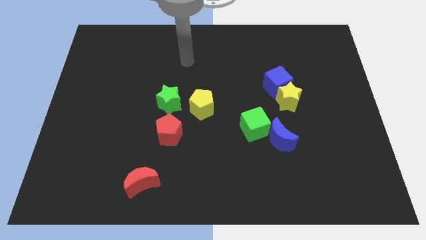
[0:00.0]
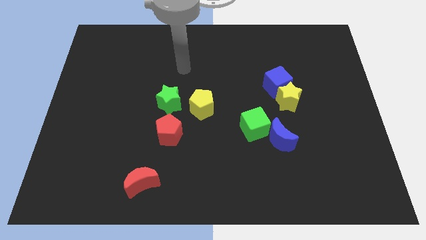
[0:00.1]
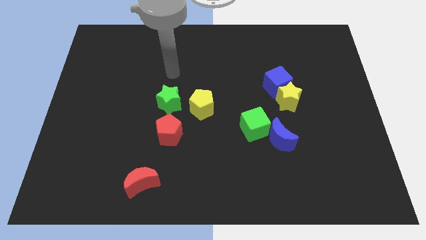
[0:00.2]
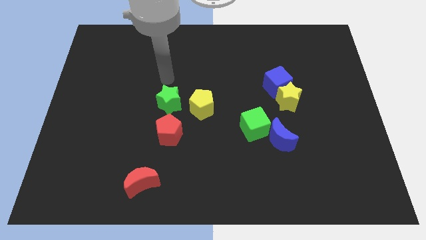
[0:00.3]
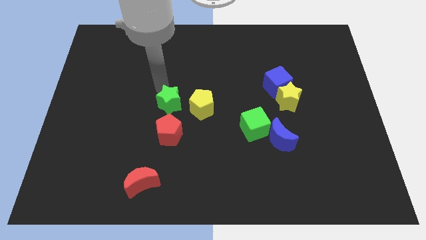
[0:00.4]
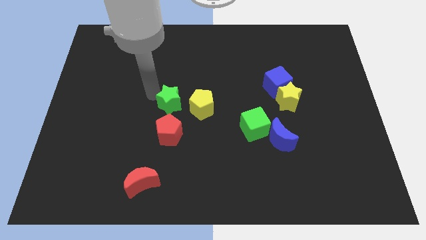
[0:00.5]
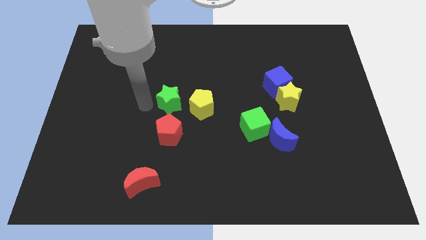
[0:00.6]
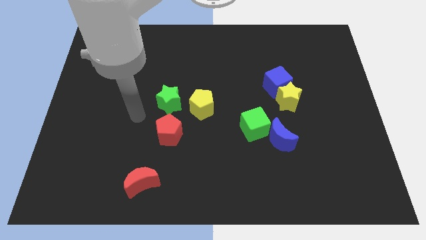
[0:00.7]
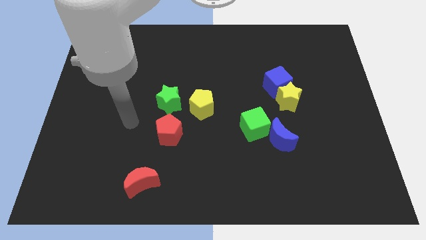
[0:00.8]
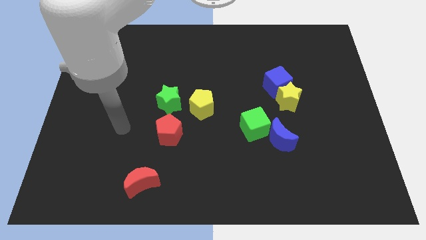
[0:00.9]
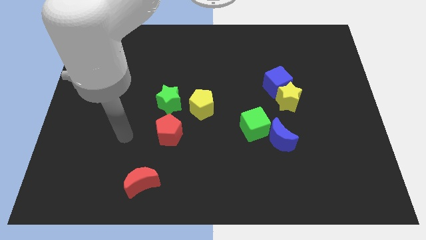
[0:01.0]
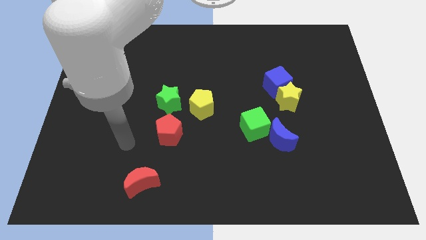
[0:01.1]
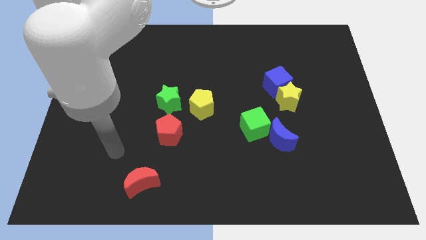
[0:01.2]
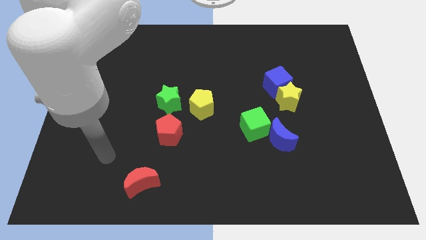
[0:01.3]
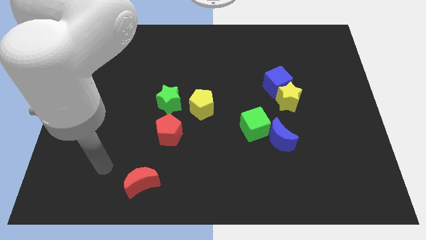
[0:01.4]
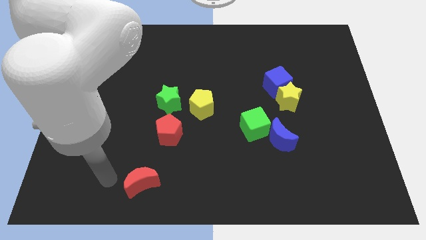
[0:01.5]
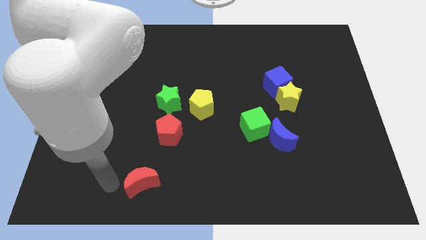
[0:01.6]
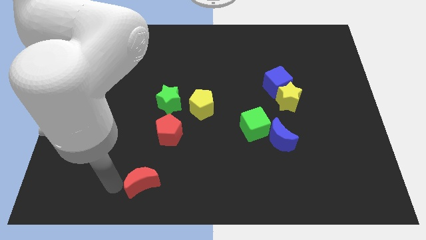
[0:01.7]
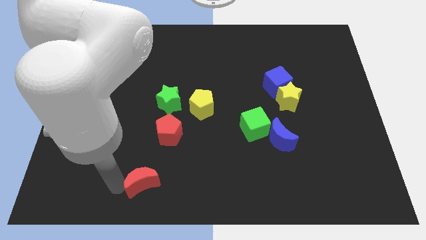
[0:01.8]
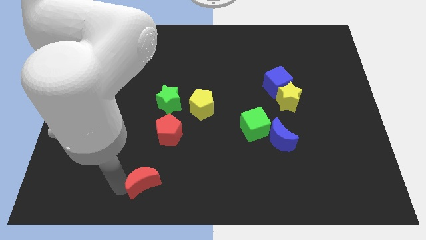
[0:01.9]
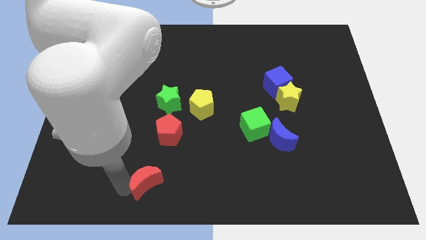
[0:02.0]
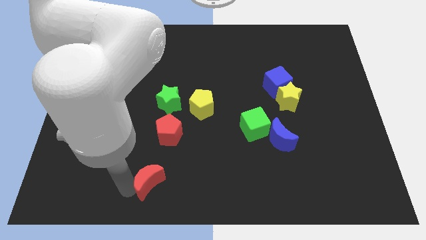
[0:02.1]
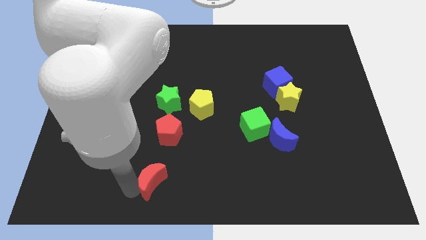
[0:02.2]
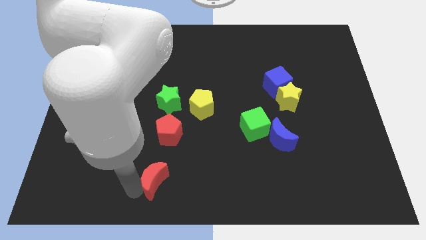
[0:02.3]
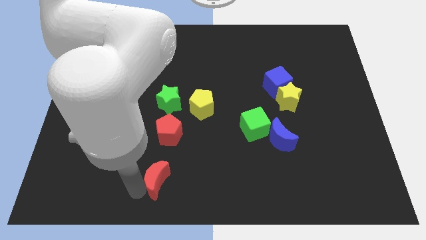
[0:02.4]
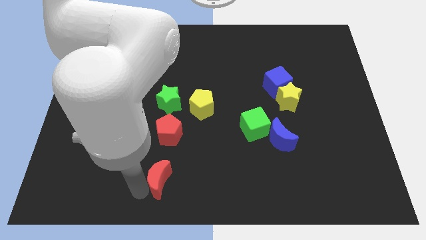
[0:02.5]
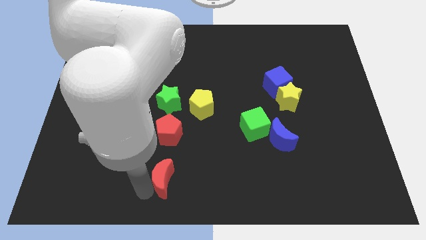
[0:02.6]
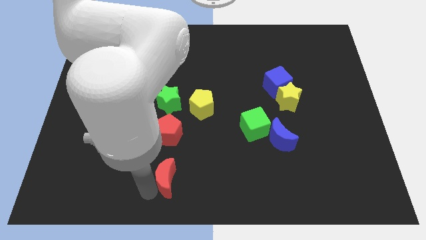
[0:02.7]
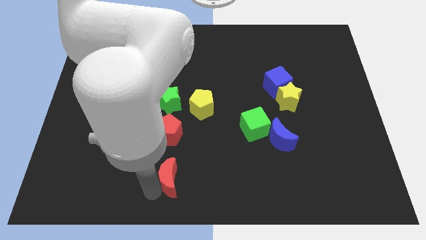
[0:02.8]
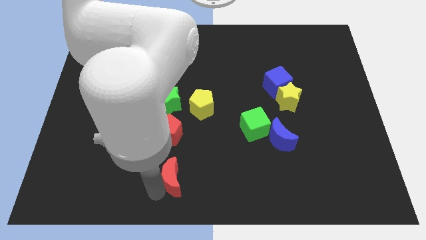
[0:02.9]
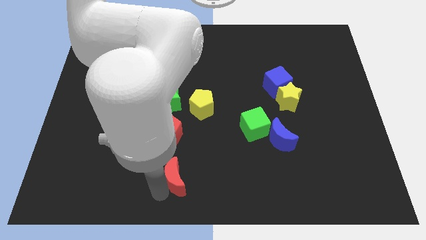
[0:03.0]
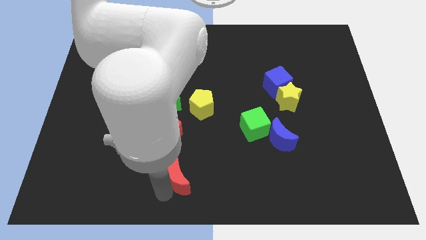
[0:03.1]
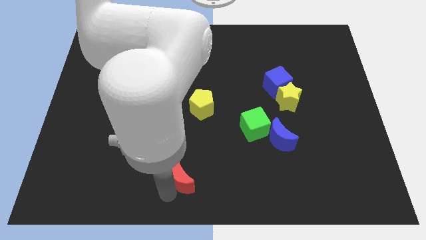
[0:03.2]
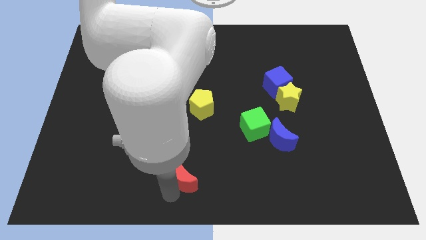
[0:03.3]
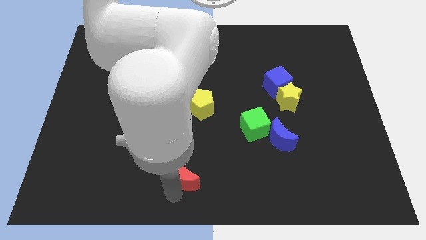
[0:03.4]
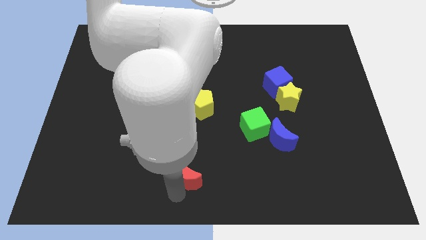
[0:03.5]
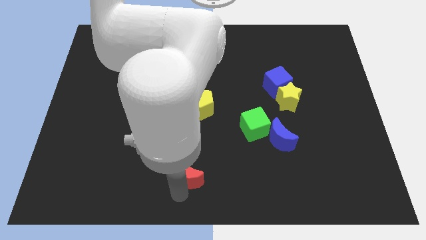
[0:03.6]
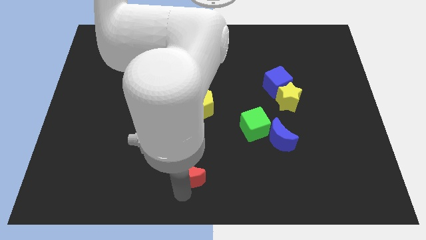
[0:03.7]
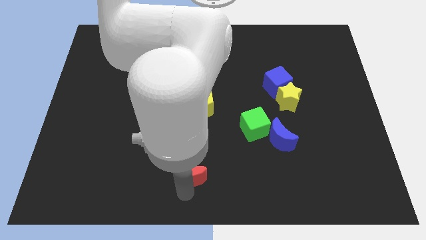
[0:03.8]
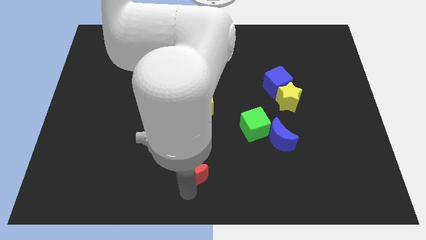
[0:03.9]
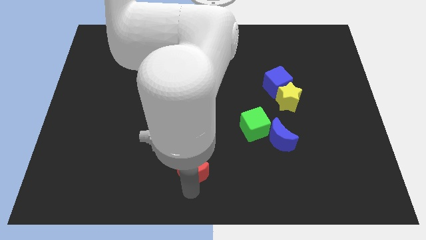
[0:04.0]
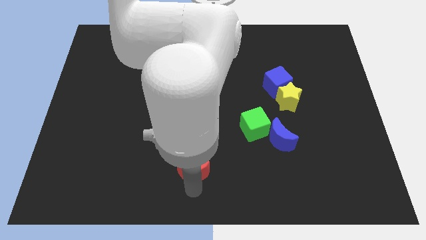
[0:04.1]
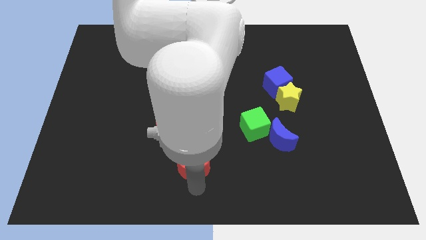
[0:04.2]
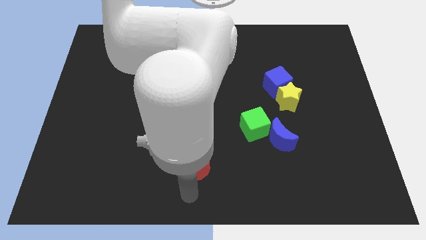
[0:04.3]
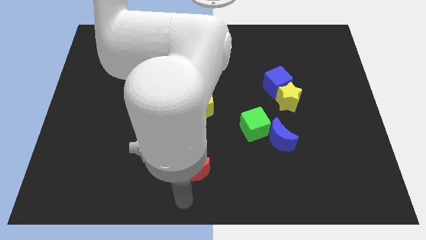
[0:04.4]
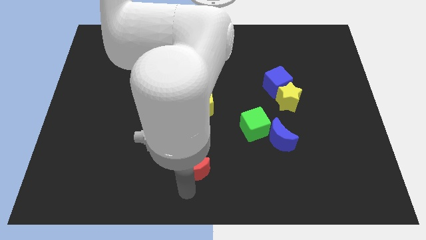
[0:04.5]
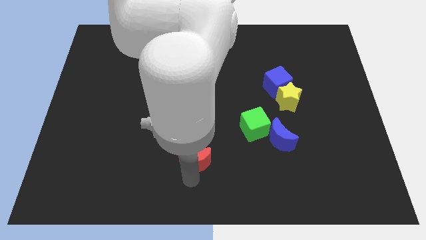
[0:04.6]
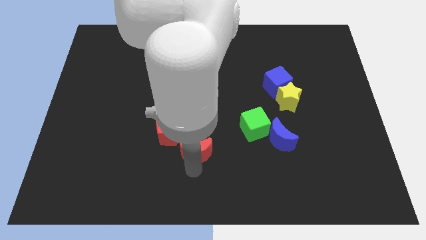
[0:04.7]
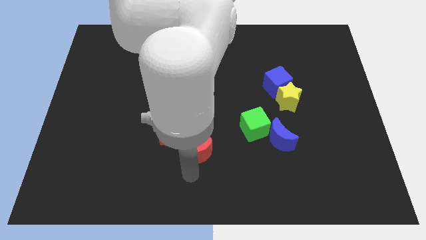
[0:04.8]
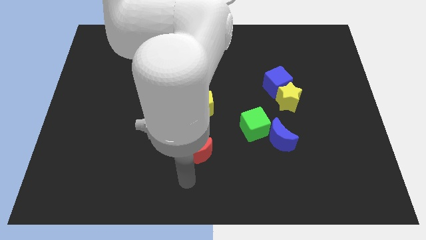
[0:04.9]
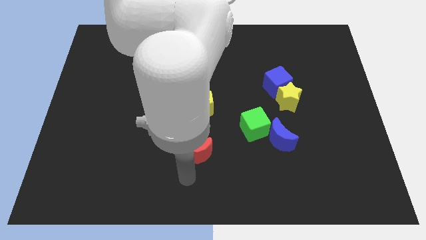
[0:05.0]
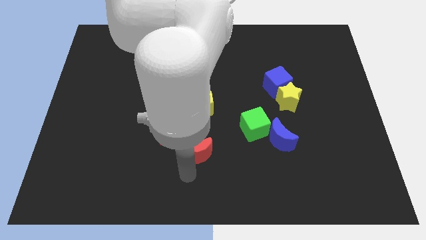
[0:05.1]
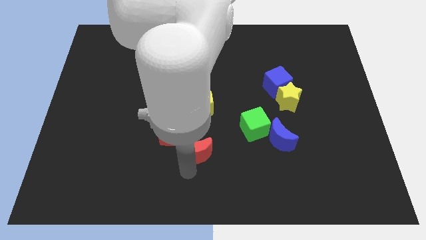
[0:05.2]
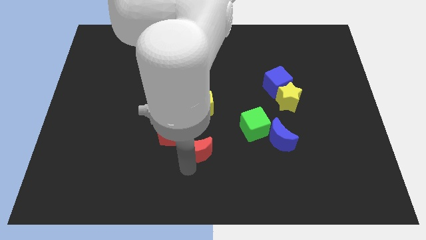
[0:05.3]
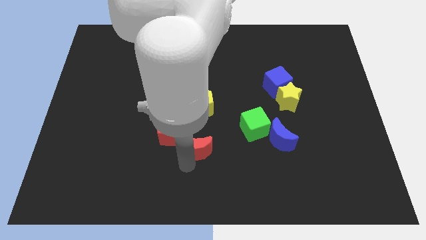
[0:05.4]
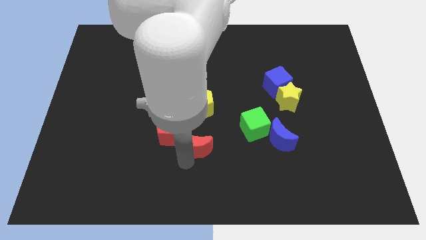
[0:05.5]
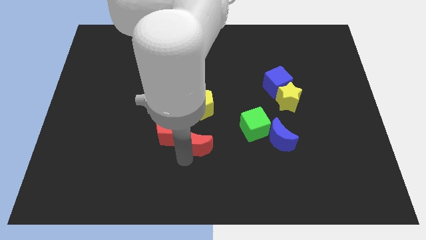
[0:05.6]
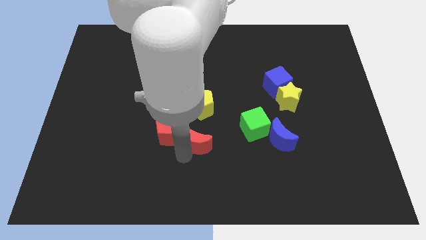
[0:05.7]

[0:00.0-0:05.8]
slide the red moon to the left side of the green cube

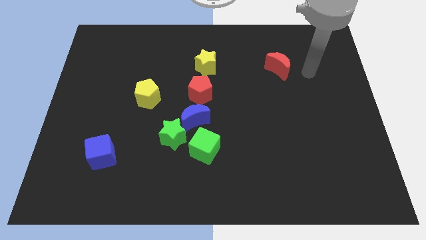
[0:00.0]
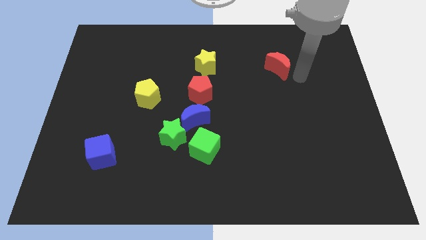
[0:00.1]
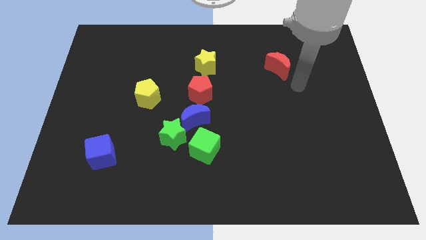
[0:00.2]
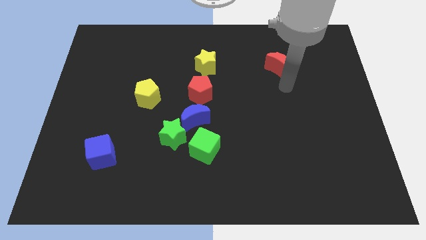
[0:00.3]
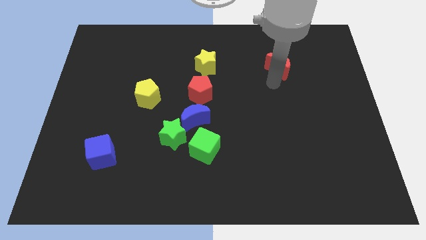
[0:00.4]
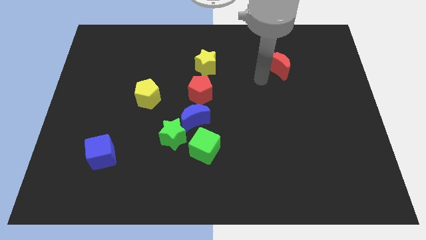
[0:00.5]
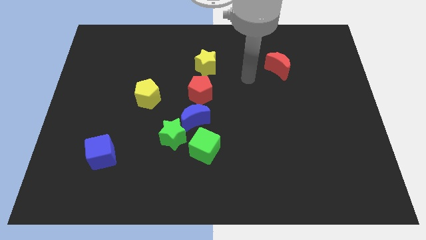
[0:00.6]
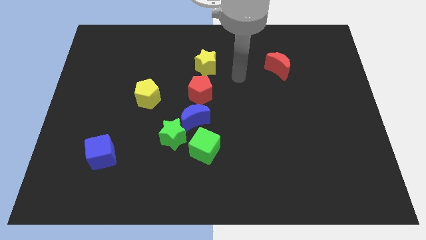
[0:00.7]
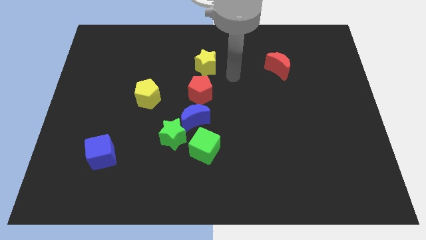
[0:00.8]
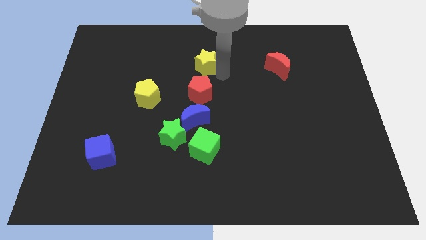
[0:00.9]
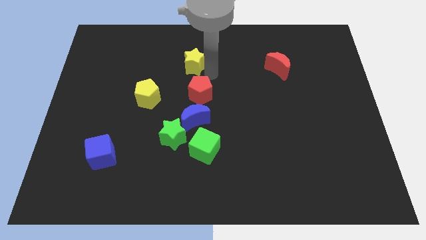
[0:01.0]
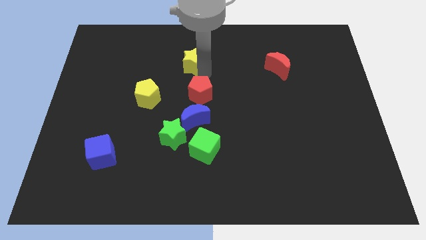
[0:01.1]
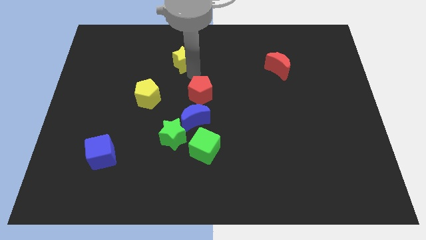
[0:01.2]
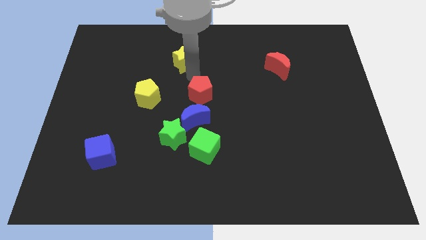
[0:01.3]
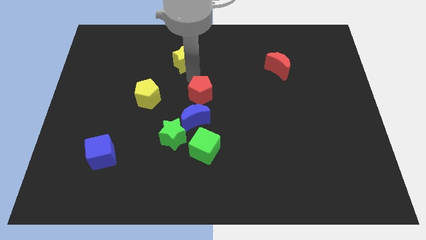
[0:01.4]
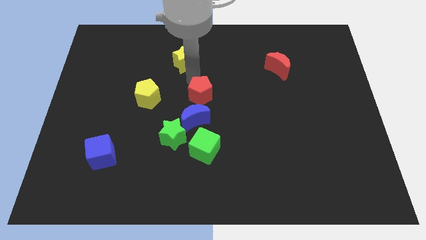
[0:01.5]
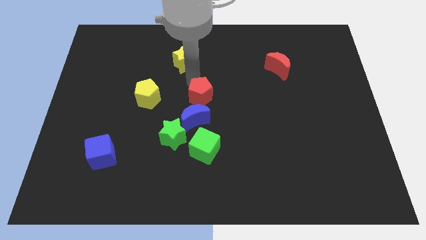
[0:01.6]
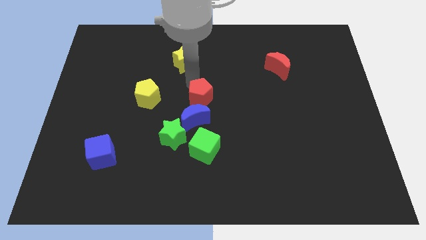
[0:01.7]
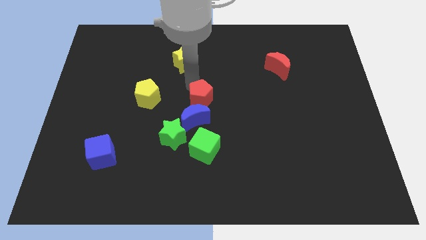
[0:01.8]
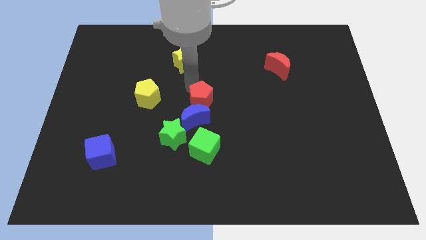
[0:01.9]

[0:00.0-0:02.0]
slide the red pentagon diagonally up and to the right of the green star

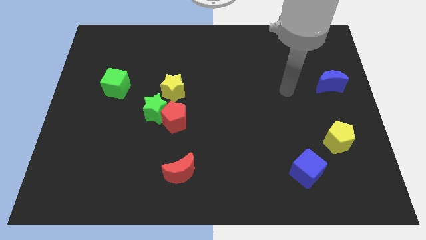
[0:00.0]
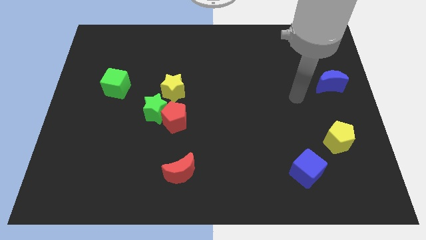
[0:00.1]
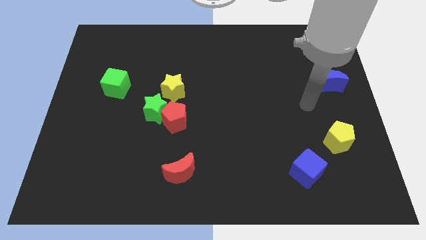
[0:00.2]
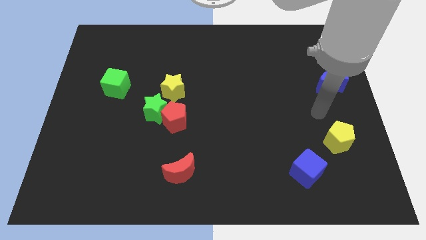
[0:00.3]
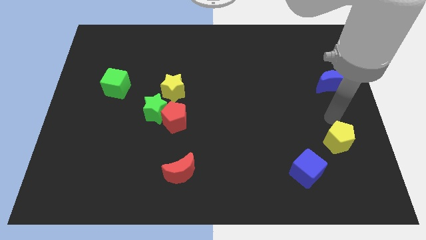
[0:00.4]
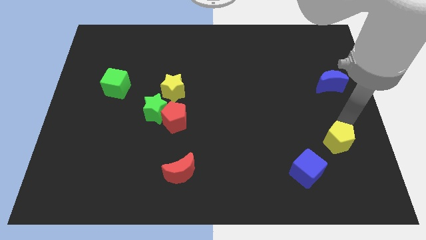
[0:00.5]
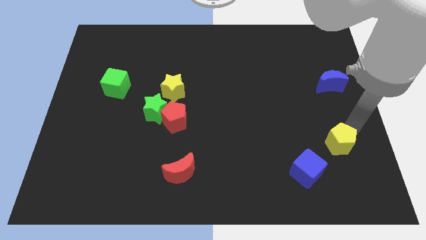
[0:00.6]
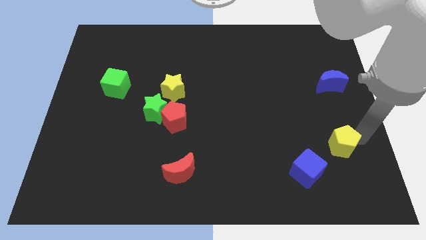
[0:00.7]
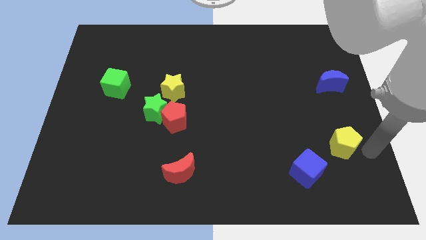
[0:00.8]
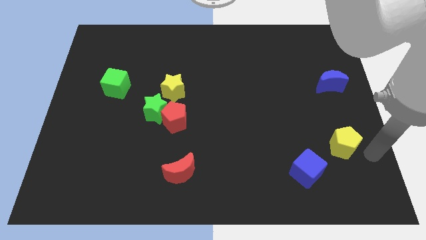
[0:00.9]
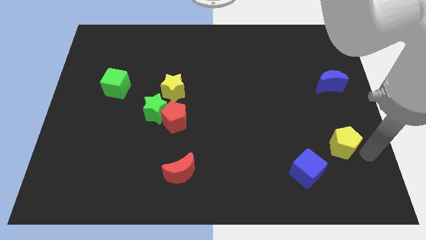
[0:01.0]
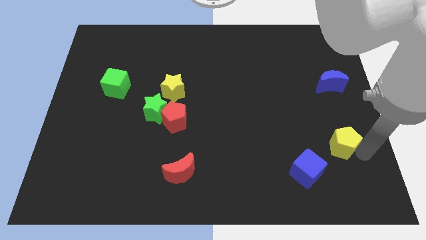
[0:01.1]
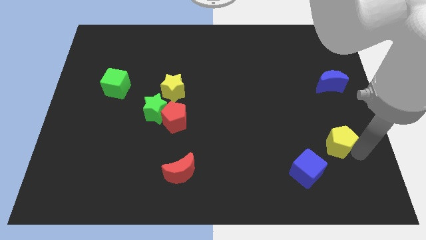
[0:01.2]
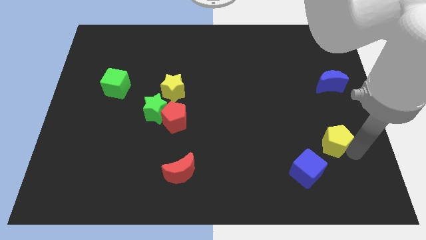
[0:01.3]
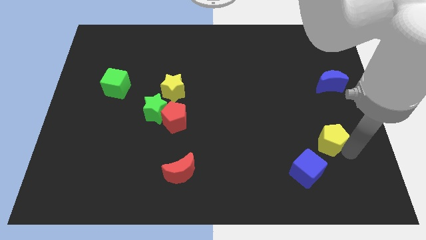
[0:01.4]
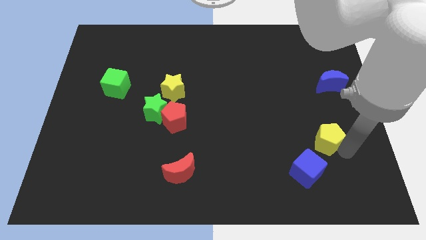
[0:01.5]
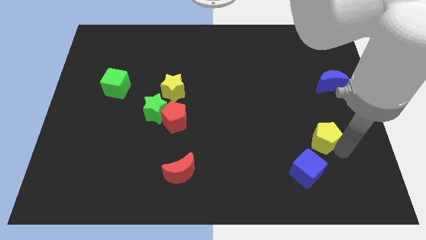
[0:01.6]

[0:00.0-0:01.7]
move the yellow pentagon to the top side of the blue cube
